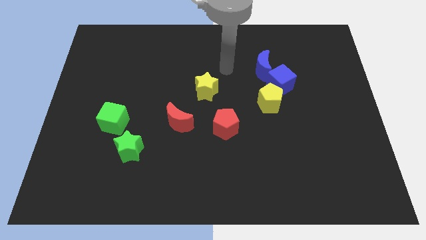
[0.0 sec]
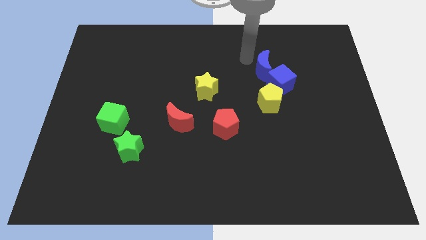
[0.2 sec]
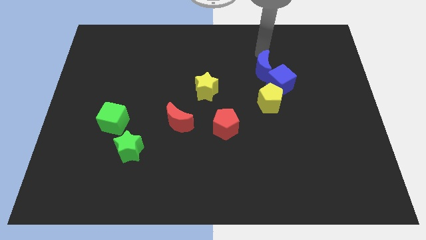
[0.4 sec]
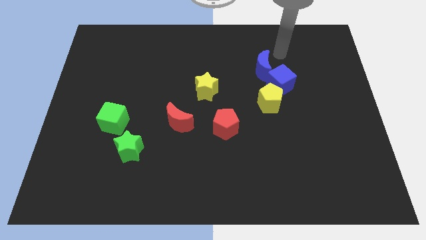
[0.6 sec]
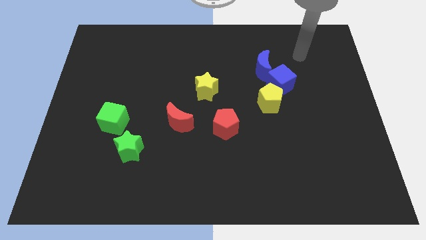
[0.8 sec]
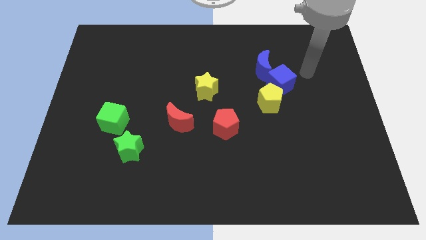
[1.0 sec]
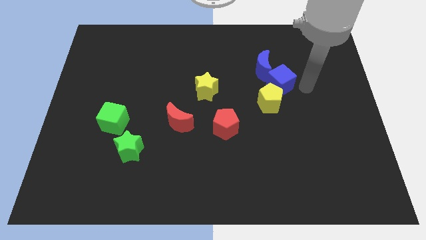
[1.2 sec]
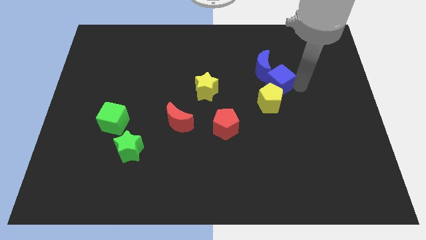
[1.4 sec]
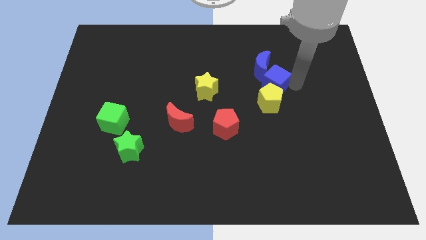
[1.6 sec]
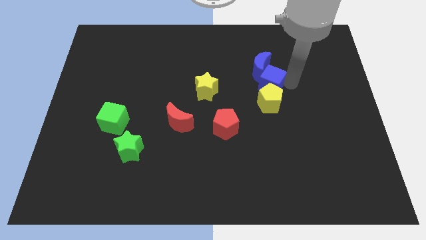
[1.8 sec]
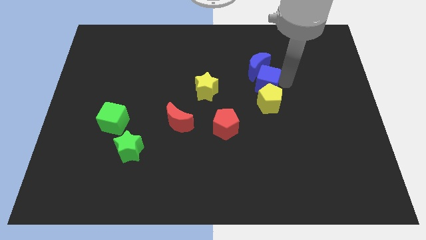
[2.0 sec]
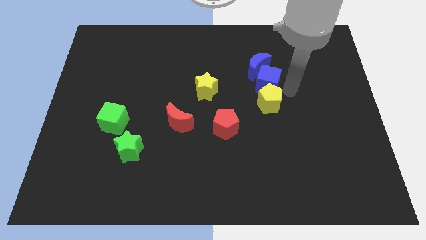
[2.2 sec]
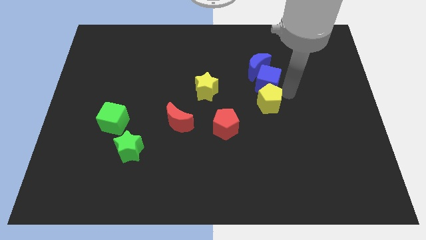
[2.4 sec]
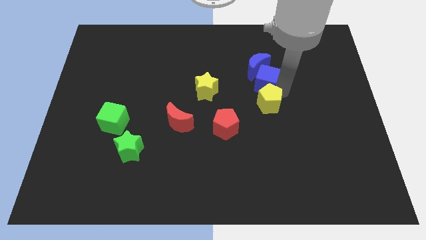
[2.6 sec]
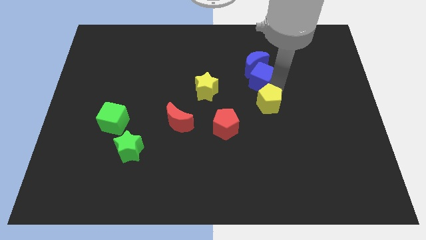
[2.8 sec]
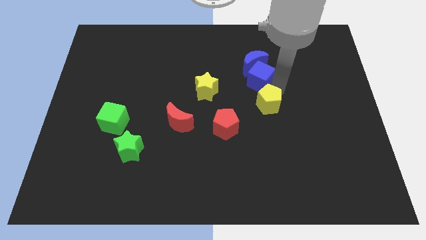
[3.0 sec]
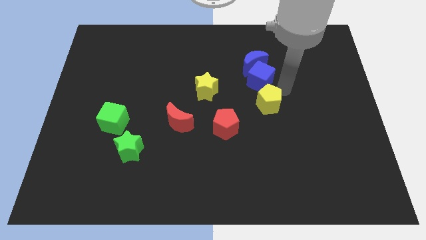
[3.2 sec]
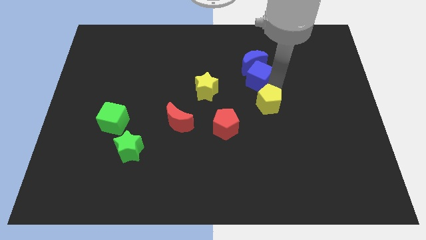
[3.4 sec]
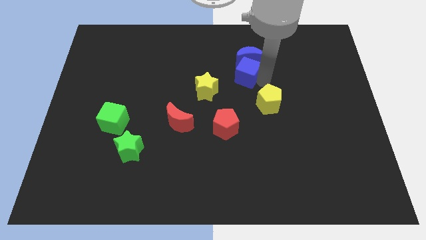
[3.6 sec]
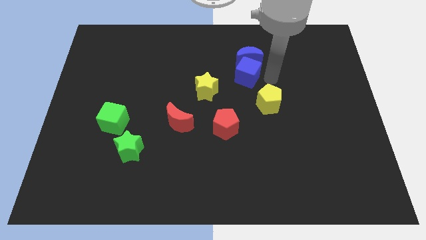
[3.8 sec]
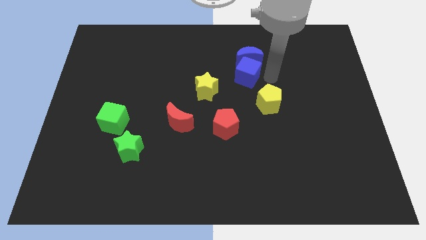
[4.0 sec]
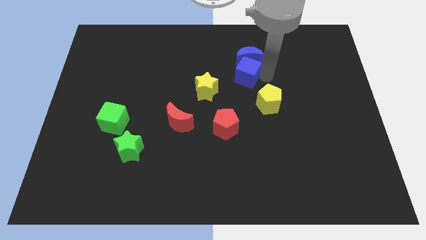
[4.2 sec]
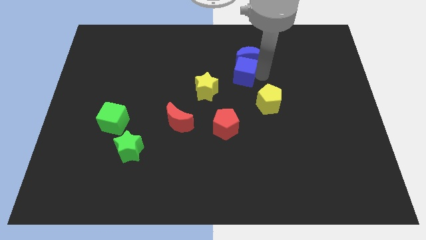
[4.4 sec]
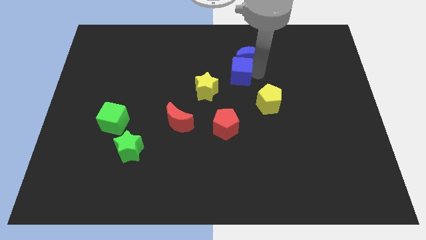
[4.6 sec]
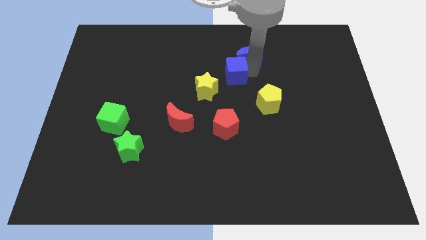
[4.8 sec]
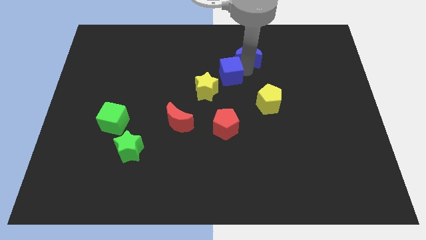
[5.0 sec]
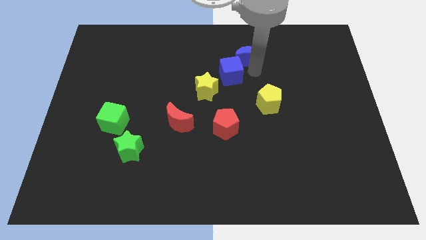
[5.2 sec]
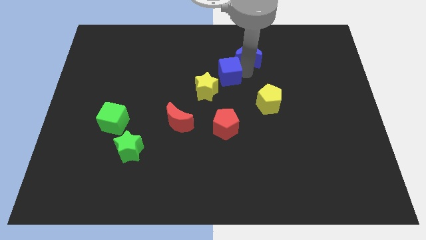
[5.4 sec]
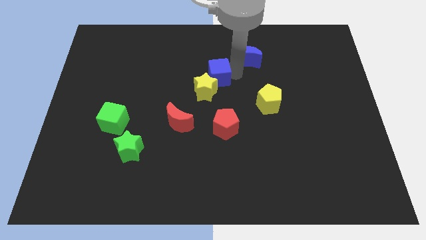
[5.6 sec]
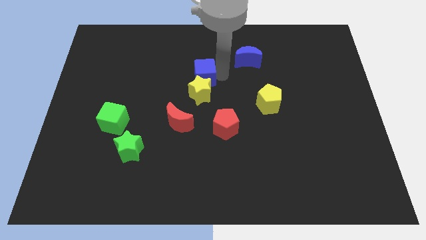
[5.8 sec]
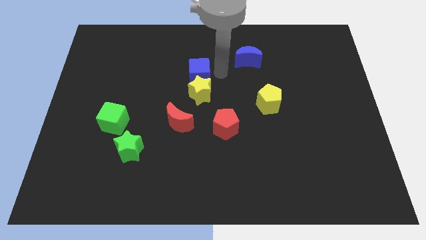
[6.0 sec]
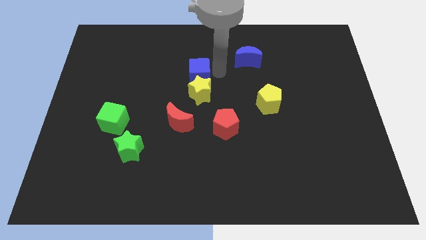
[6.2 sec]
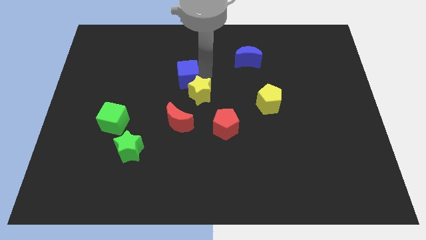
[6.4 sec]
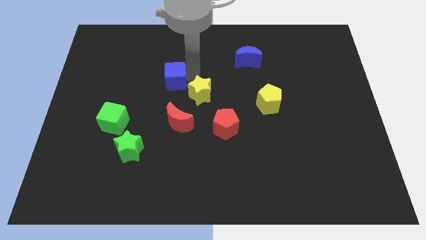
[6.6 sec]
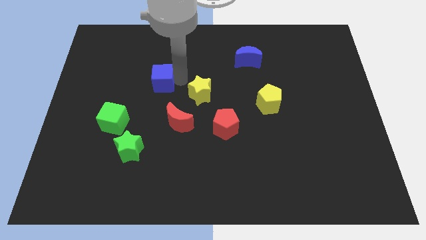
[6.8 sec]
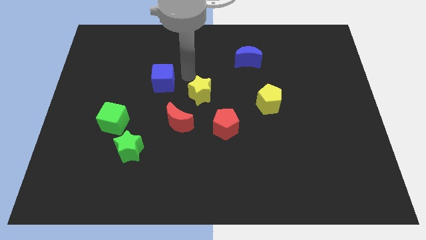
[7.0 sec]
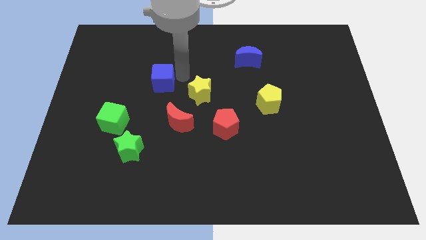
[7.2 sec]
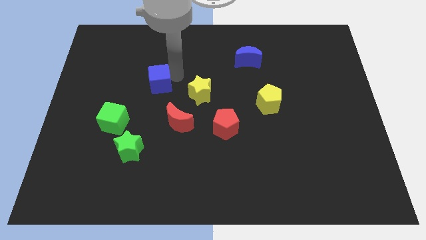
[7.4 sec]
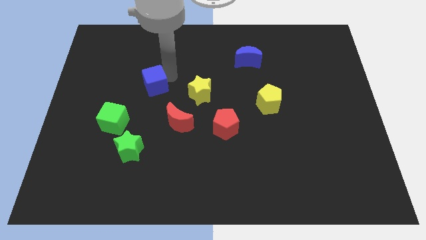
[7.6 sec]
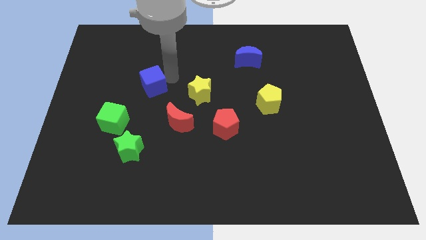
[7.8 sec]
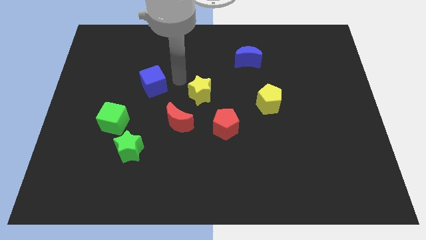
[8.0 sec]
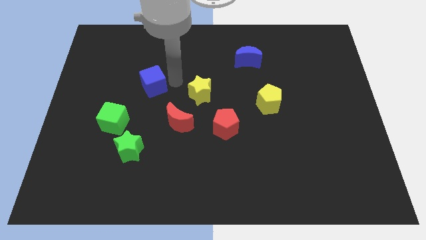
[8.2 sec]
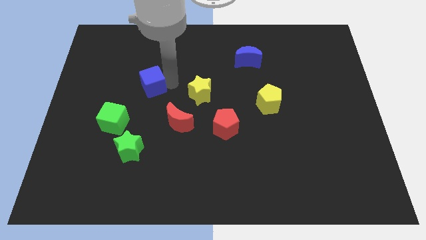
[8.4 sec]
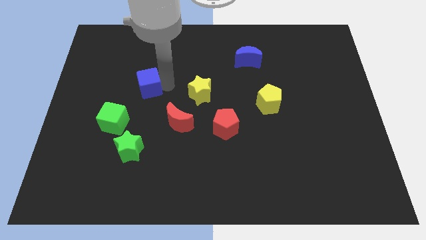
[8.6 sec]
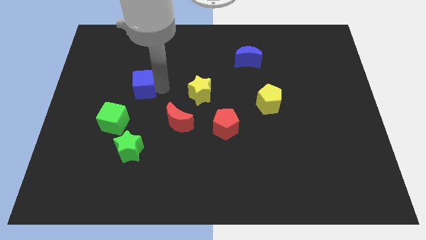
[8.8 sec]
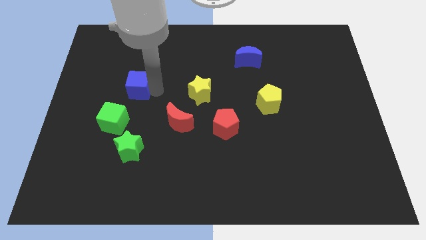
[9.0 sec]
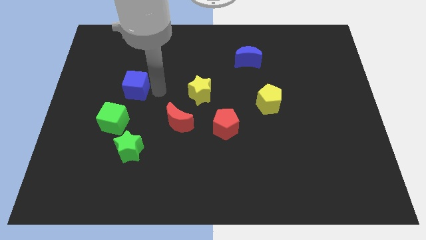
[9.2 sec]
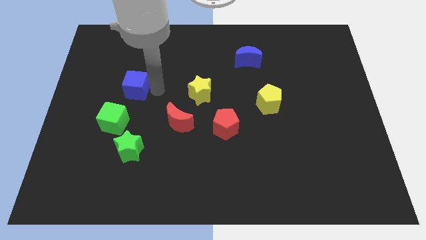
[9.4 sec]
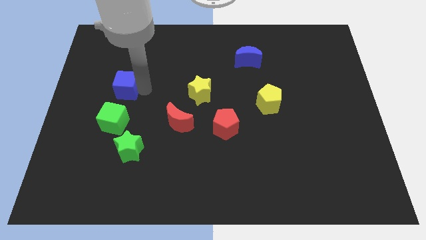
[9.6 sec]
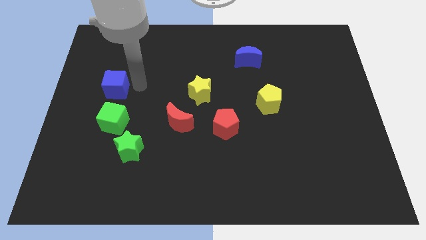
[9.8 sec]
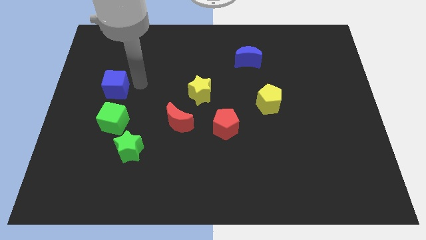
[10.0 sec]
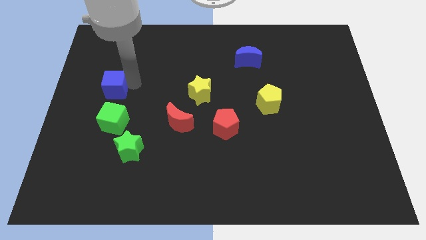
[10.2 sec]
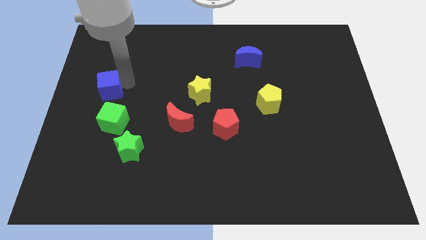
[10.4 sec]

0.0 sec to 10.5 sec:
move the blue cube to the left side of the board
